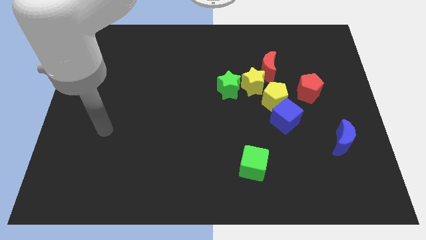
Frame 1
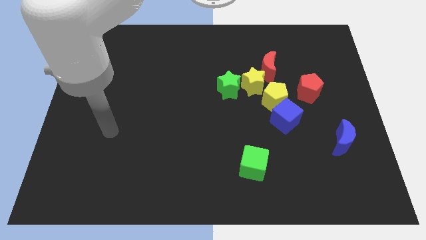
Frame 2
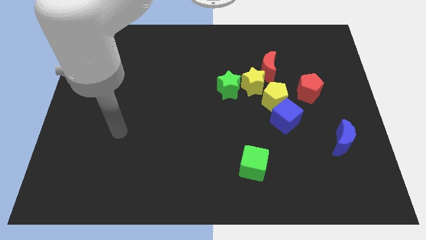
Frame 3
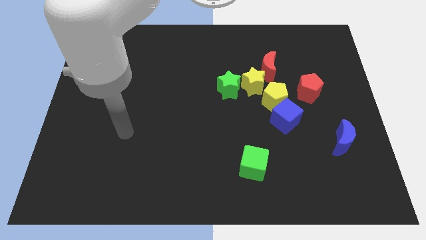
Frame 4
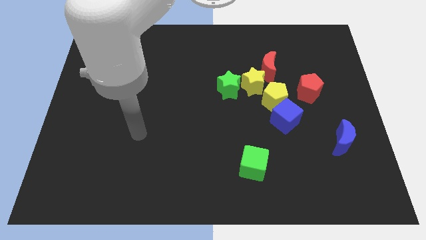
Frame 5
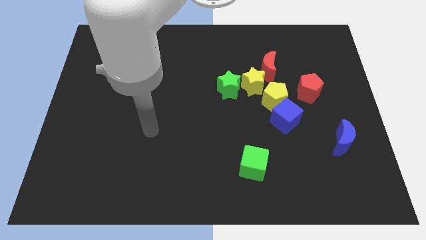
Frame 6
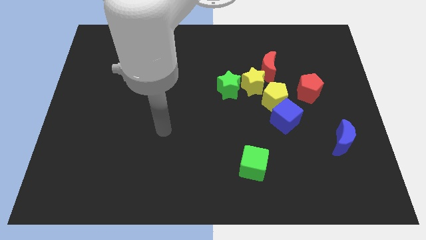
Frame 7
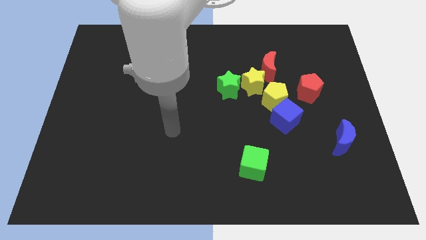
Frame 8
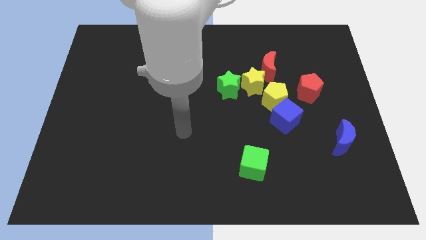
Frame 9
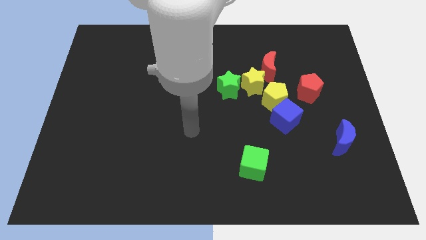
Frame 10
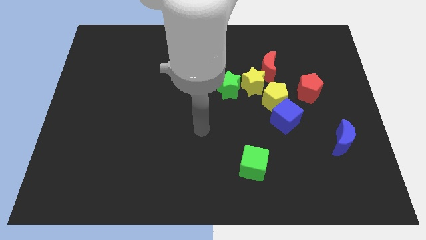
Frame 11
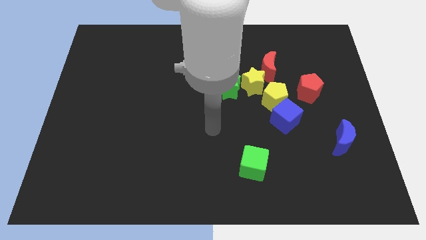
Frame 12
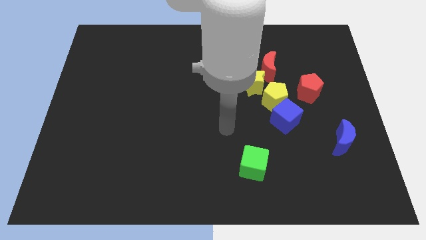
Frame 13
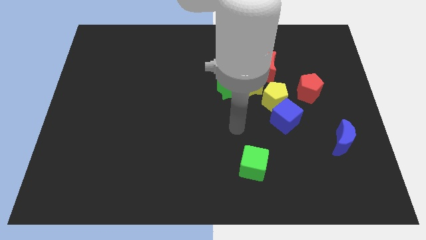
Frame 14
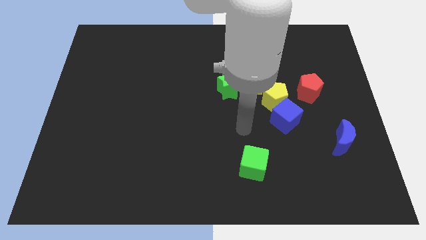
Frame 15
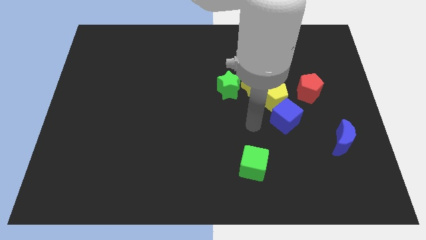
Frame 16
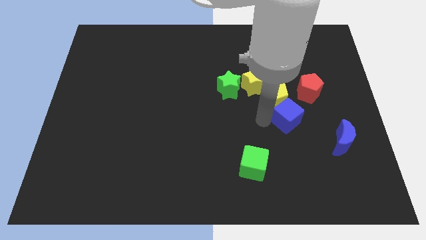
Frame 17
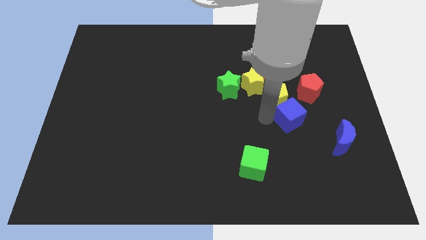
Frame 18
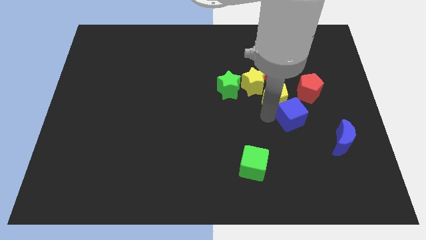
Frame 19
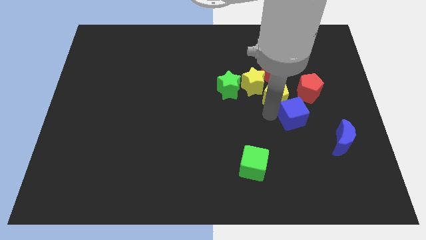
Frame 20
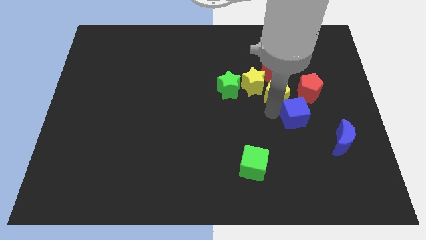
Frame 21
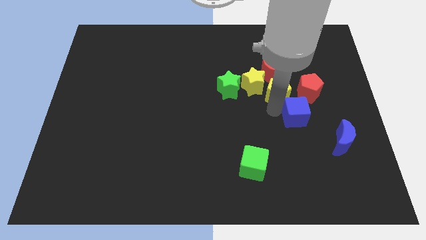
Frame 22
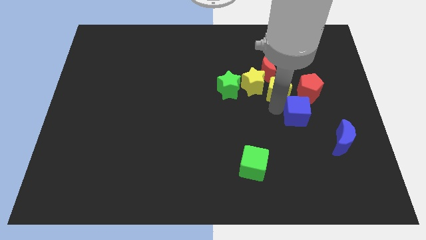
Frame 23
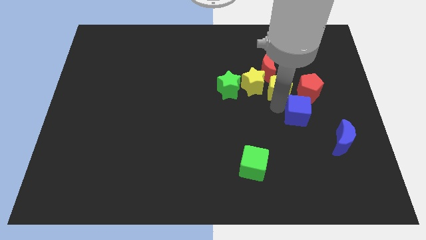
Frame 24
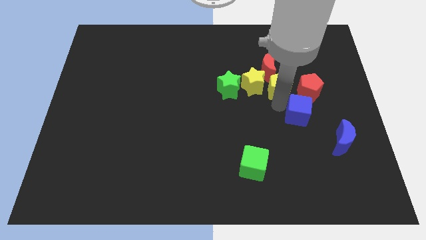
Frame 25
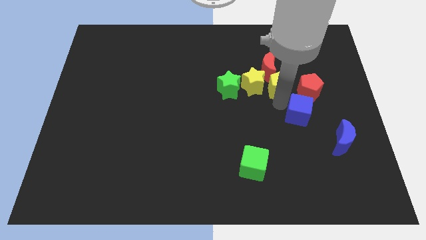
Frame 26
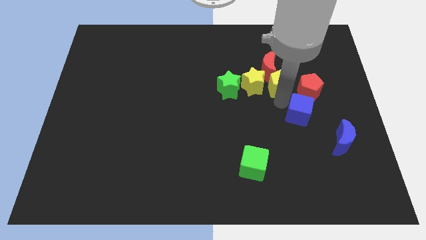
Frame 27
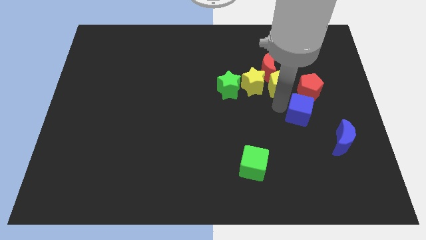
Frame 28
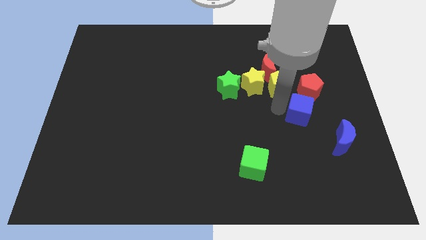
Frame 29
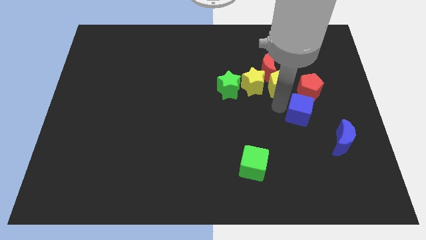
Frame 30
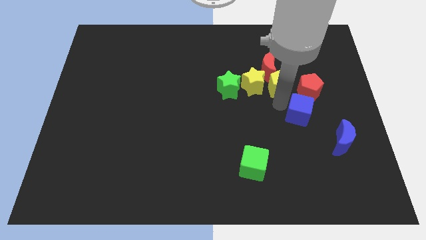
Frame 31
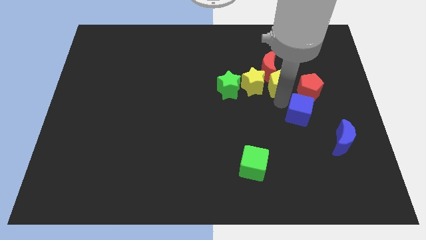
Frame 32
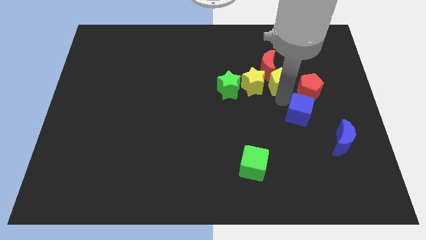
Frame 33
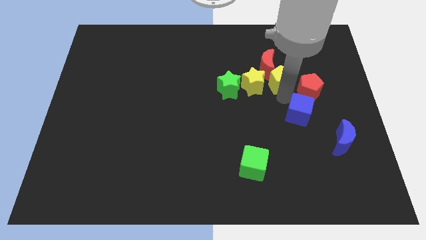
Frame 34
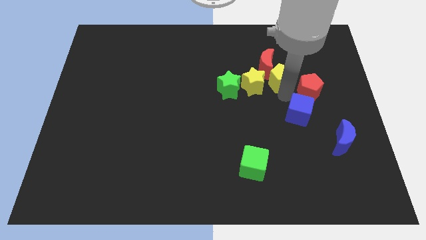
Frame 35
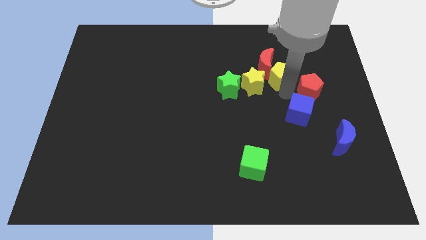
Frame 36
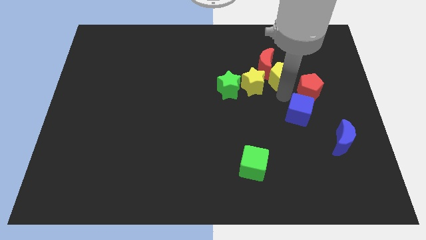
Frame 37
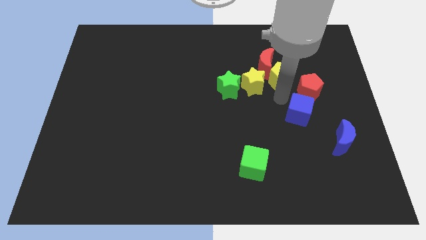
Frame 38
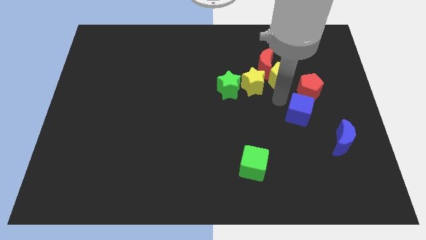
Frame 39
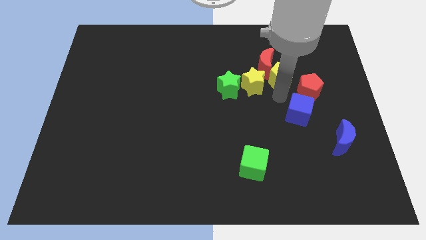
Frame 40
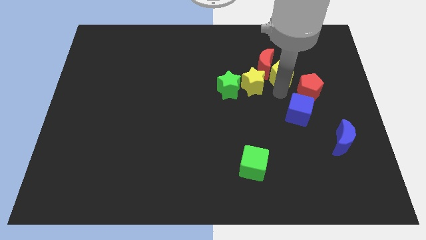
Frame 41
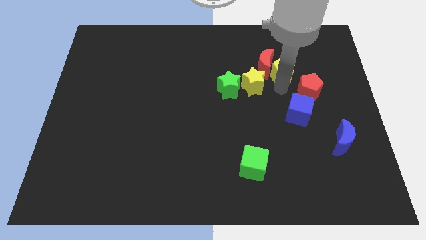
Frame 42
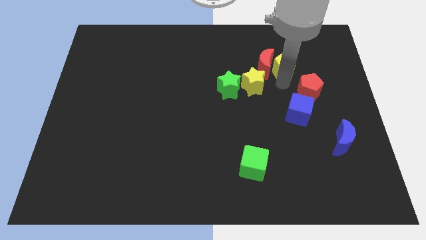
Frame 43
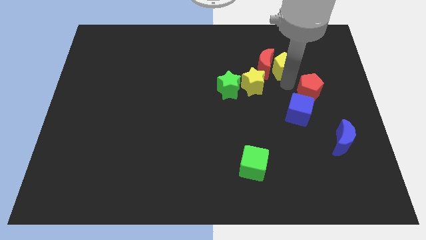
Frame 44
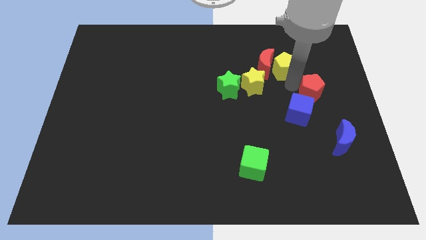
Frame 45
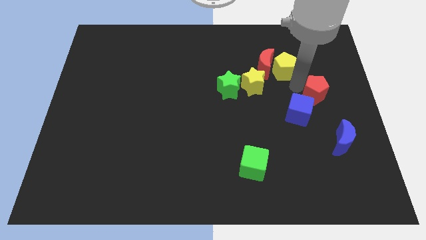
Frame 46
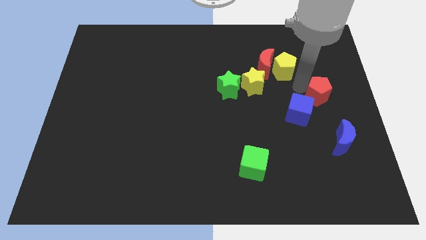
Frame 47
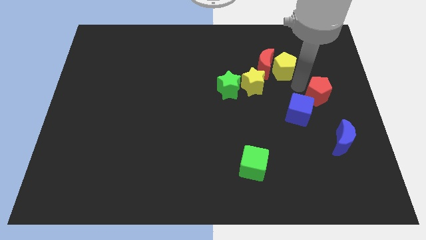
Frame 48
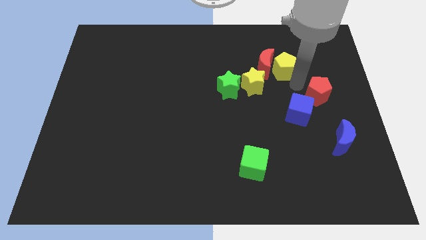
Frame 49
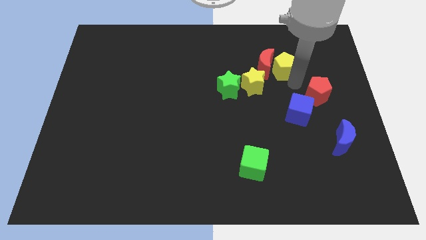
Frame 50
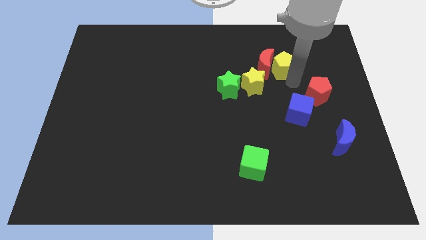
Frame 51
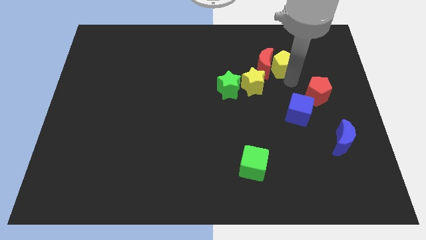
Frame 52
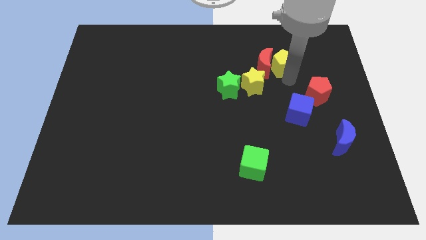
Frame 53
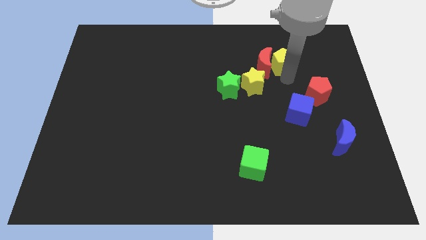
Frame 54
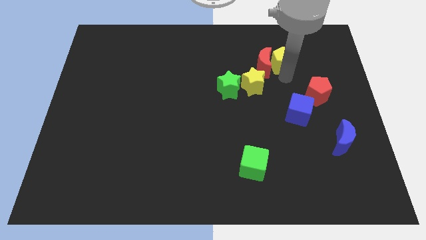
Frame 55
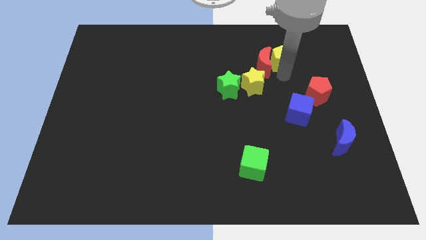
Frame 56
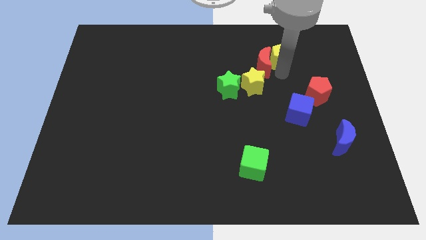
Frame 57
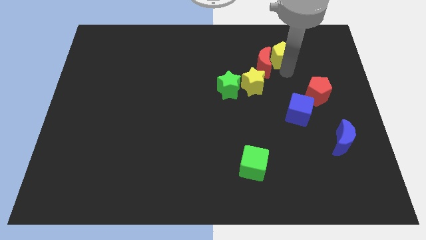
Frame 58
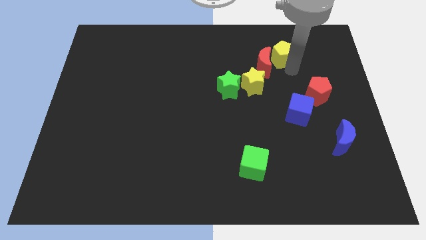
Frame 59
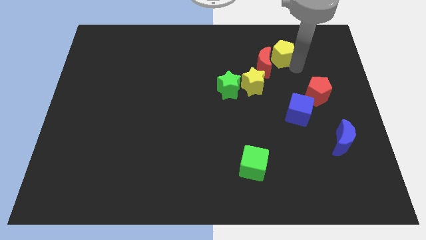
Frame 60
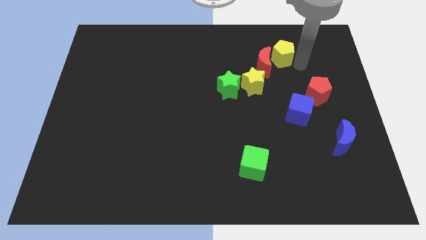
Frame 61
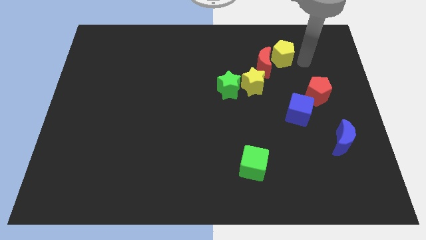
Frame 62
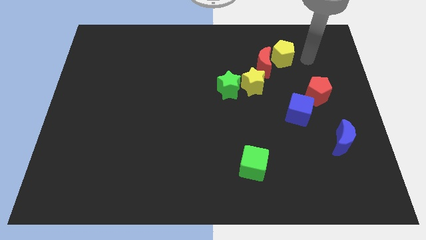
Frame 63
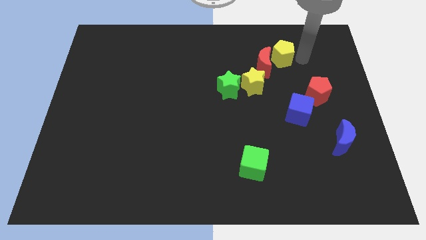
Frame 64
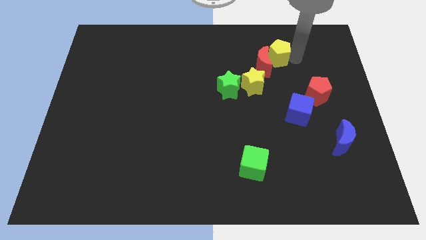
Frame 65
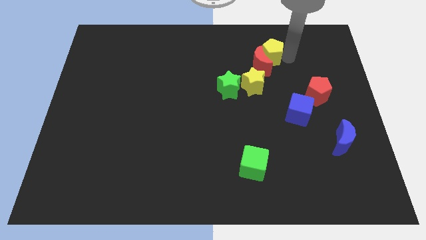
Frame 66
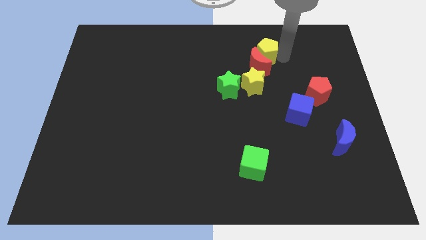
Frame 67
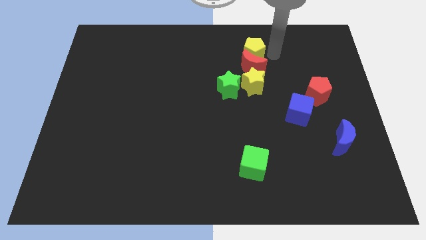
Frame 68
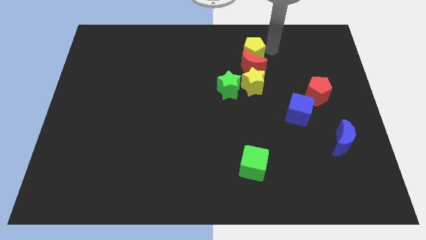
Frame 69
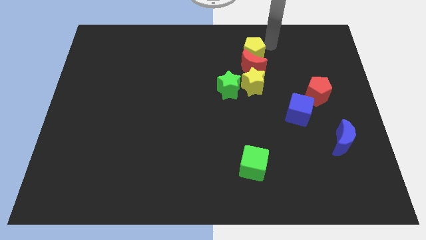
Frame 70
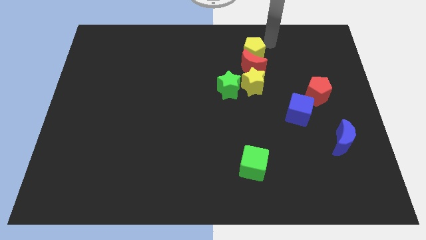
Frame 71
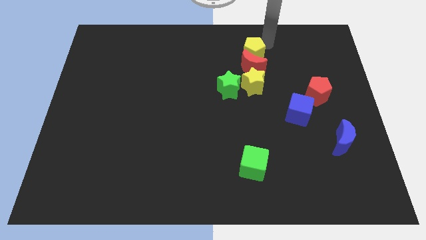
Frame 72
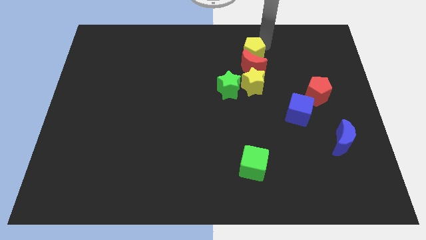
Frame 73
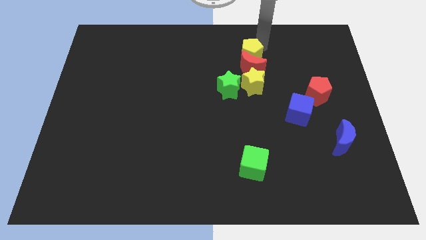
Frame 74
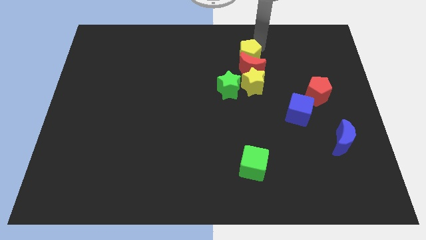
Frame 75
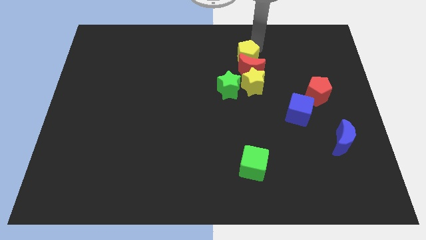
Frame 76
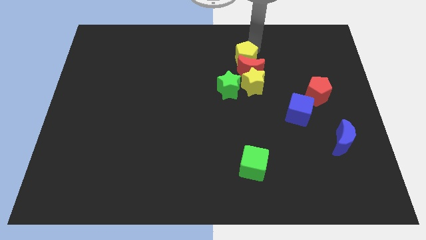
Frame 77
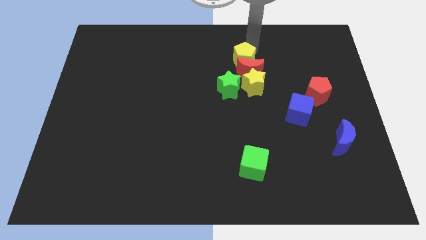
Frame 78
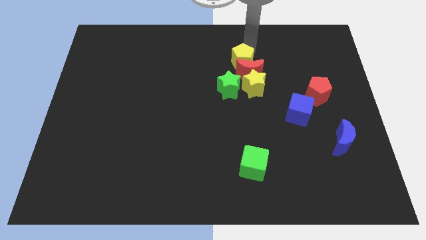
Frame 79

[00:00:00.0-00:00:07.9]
move the yellow pentagon diagonally up and to the left of the yellow star
